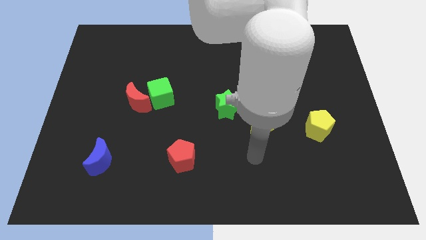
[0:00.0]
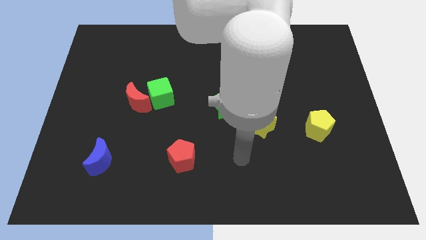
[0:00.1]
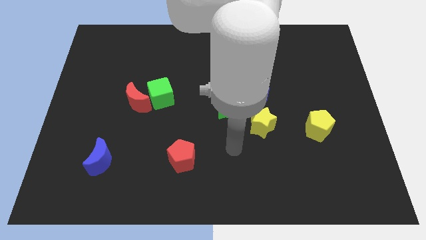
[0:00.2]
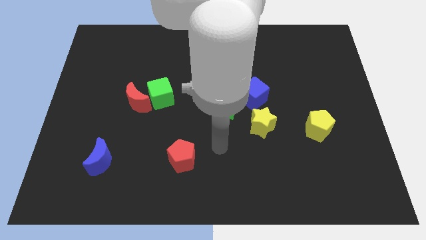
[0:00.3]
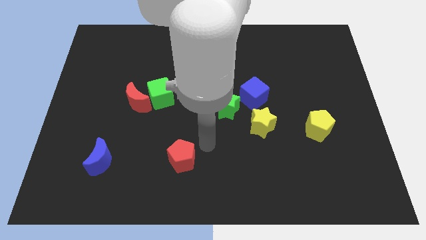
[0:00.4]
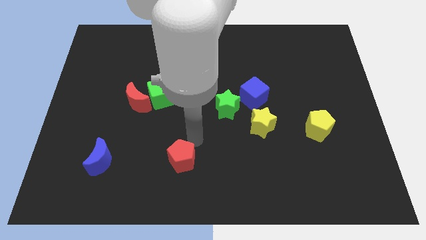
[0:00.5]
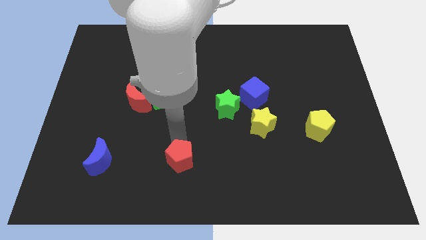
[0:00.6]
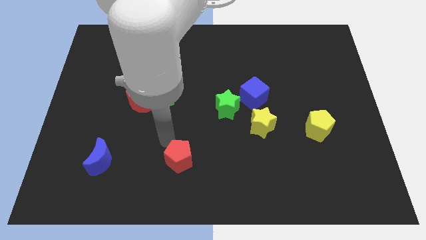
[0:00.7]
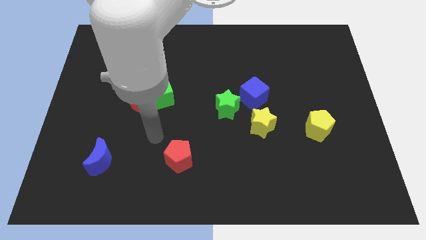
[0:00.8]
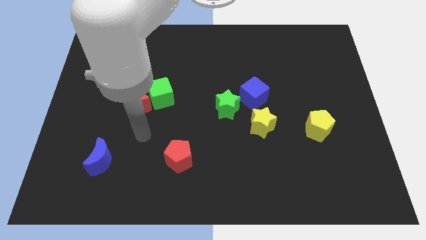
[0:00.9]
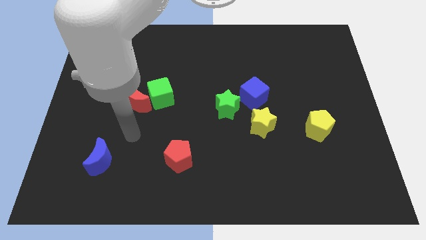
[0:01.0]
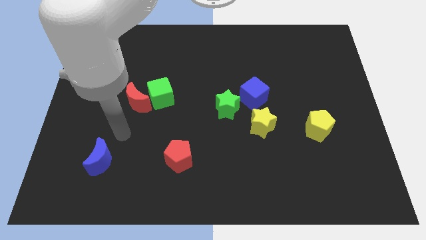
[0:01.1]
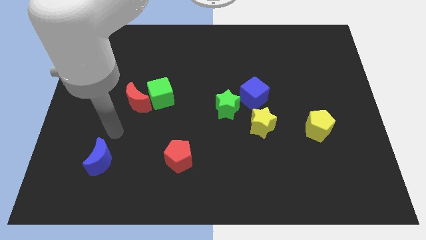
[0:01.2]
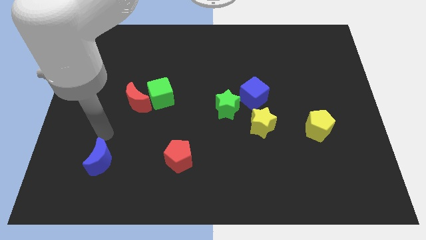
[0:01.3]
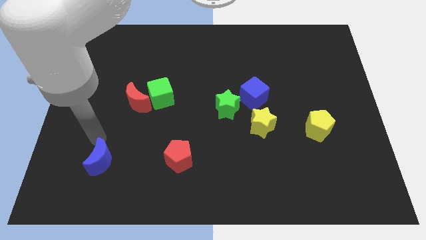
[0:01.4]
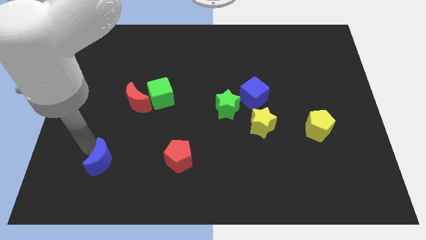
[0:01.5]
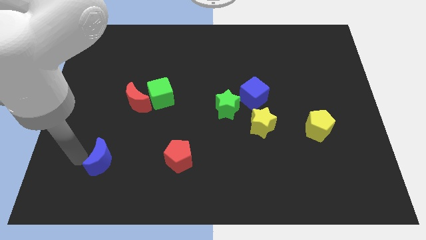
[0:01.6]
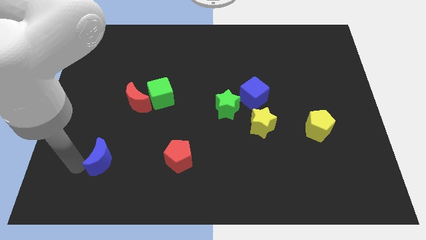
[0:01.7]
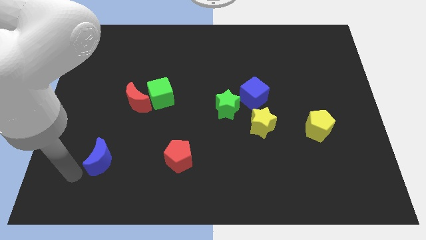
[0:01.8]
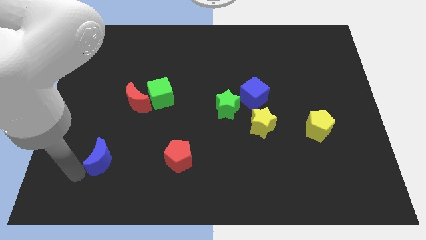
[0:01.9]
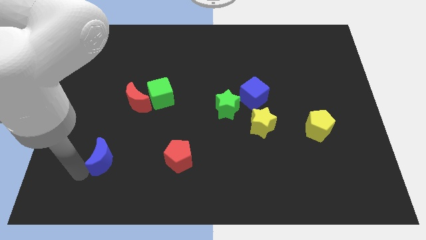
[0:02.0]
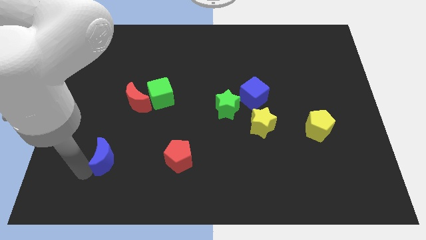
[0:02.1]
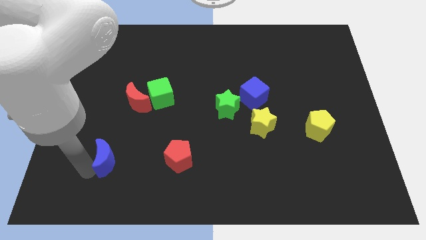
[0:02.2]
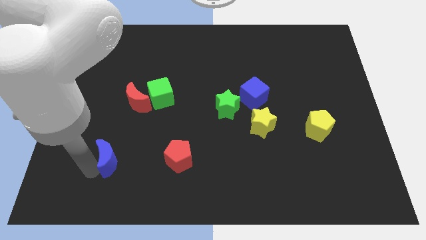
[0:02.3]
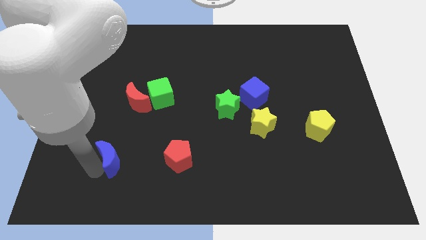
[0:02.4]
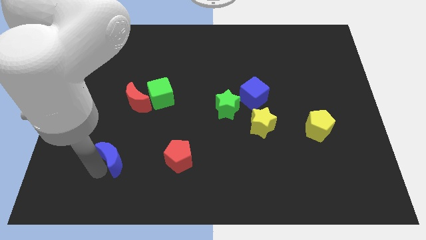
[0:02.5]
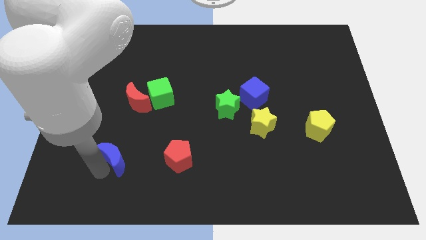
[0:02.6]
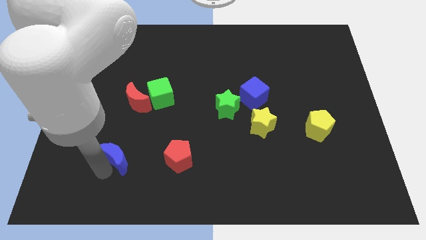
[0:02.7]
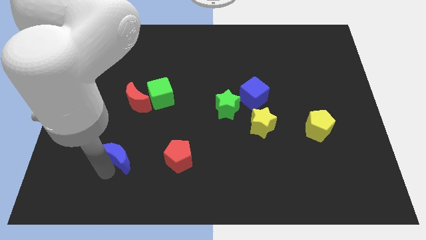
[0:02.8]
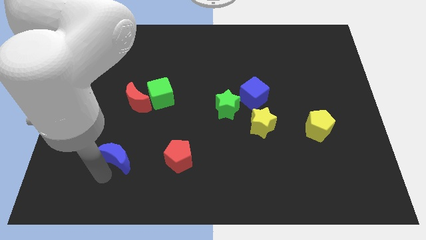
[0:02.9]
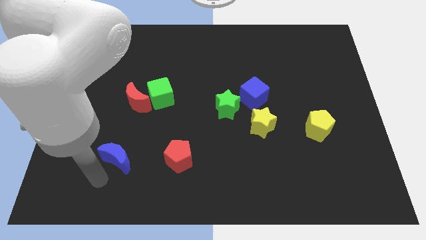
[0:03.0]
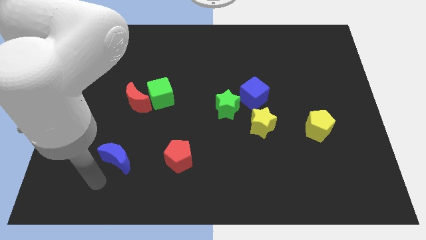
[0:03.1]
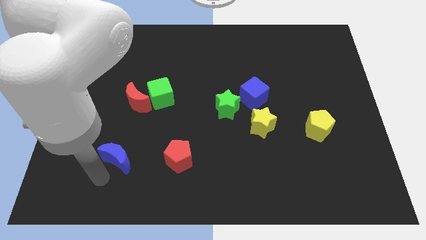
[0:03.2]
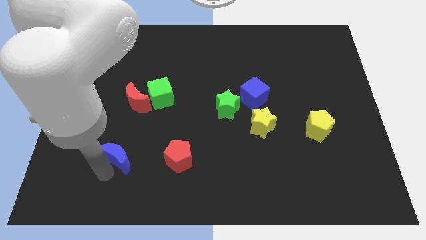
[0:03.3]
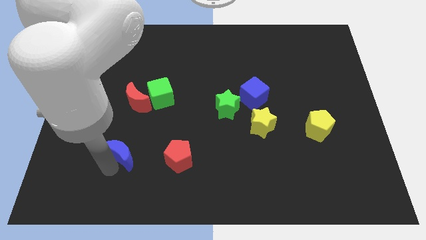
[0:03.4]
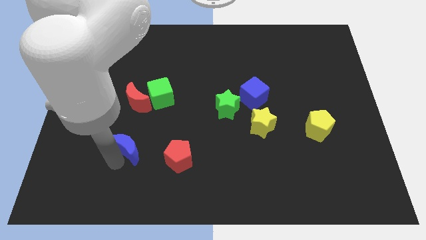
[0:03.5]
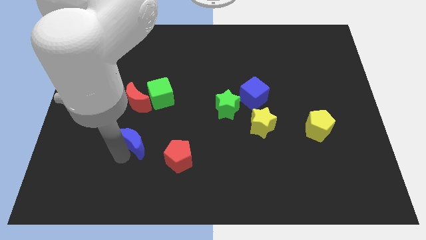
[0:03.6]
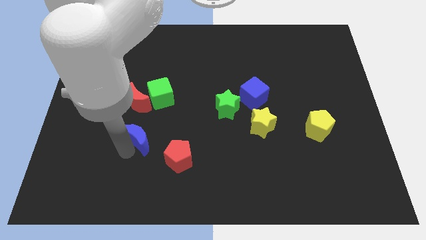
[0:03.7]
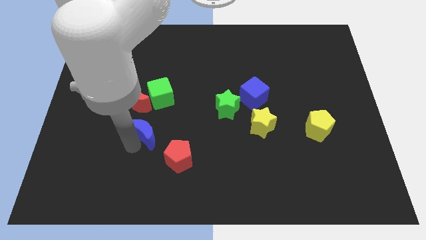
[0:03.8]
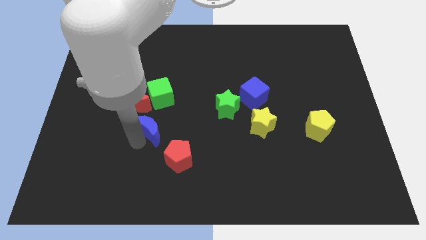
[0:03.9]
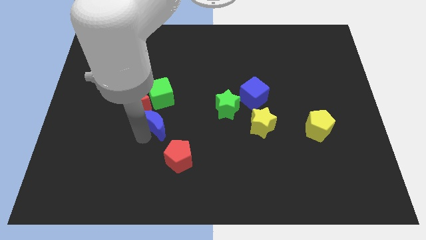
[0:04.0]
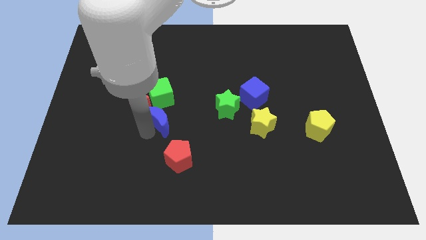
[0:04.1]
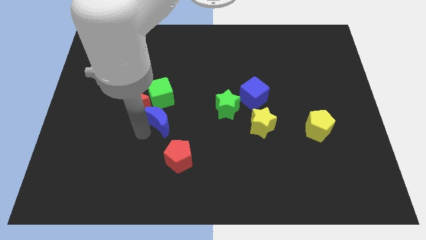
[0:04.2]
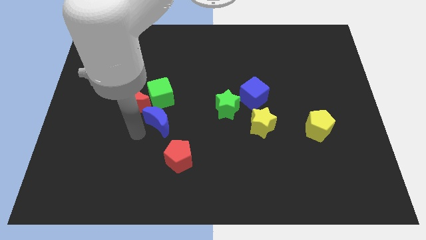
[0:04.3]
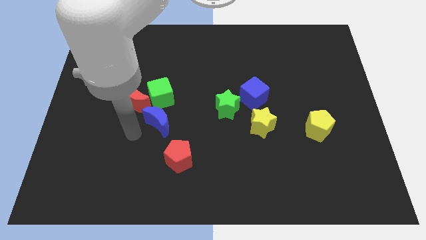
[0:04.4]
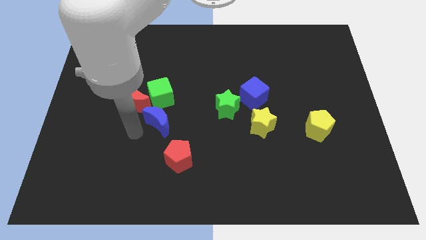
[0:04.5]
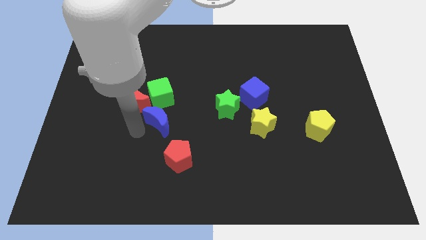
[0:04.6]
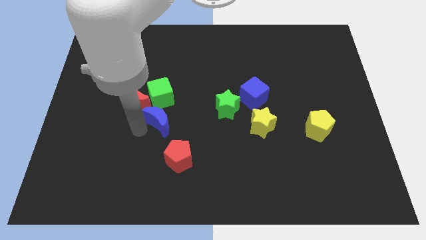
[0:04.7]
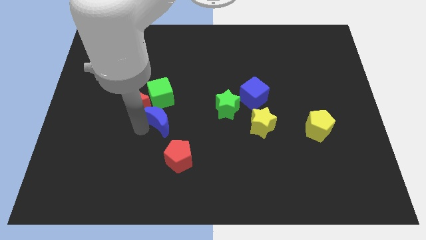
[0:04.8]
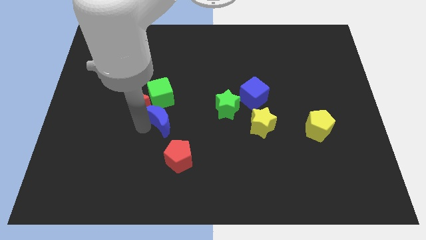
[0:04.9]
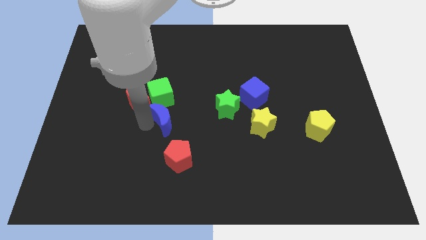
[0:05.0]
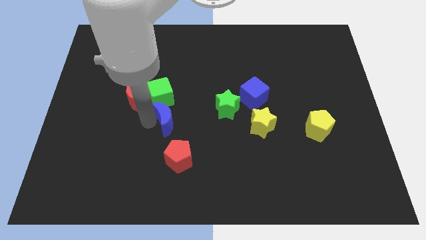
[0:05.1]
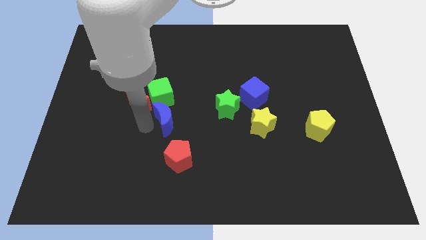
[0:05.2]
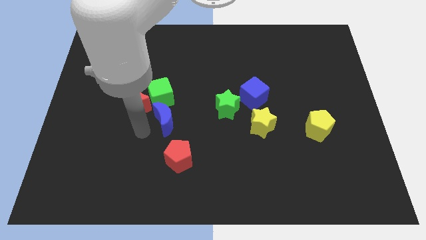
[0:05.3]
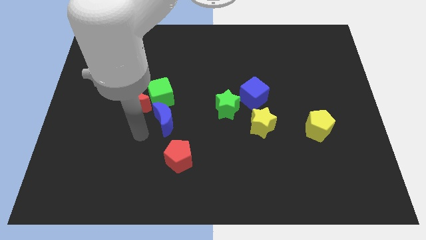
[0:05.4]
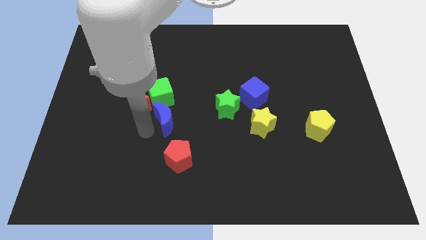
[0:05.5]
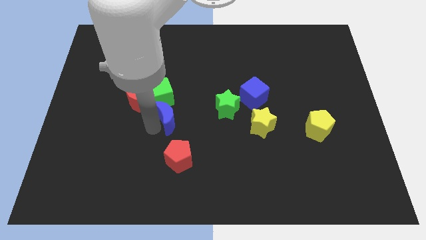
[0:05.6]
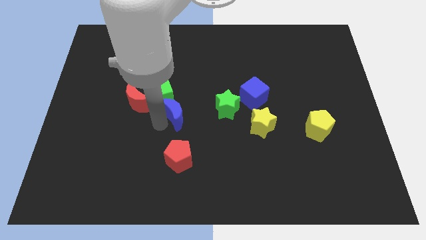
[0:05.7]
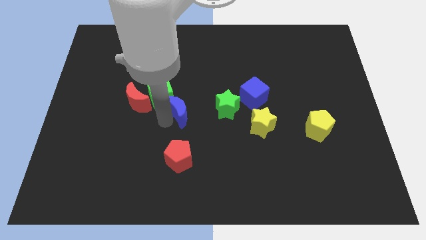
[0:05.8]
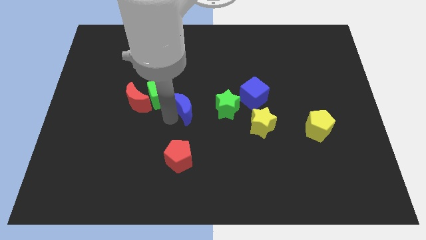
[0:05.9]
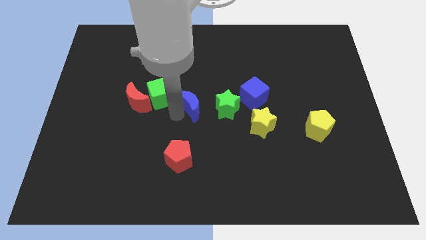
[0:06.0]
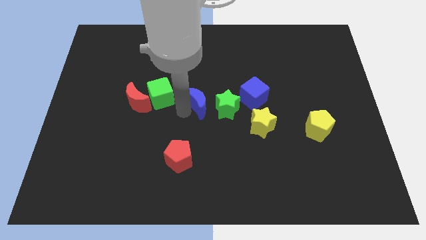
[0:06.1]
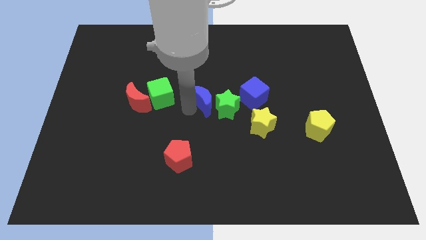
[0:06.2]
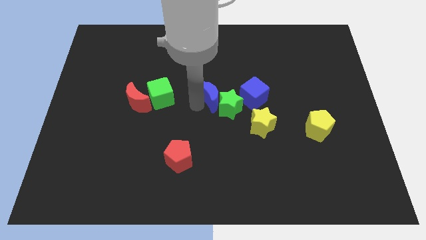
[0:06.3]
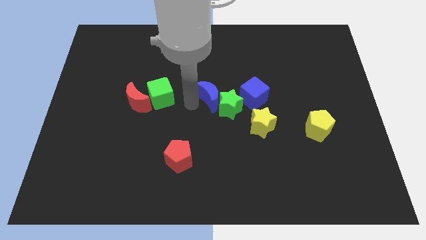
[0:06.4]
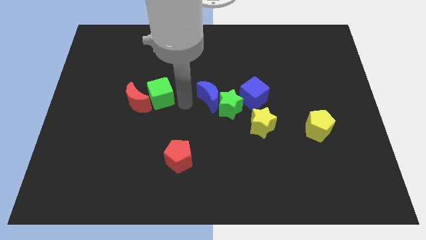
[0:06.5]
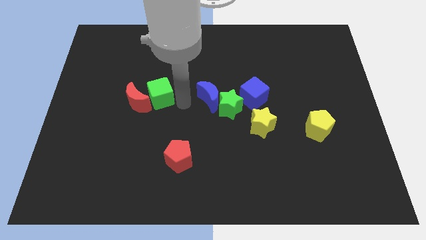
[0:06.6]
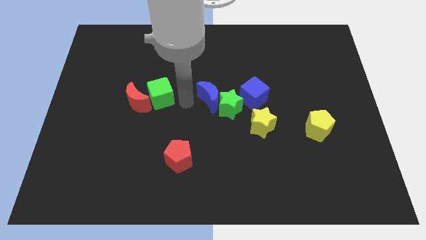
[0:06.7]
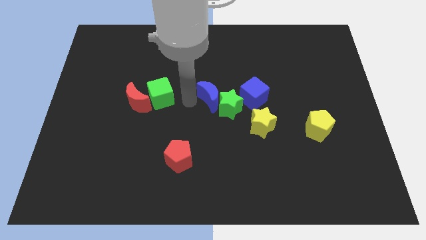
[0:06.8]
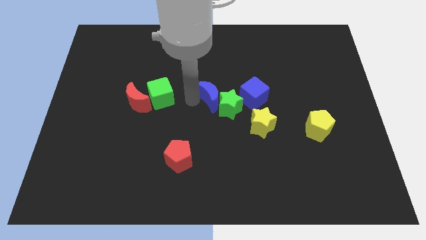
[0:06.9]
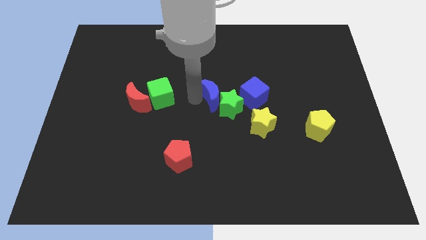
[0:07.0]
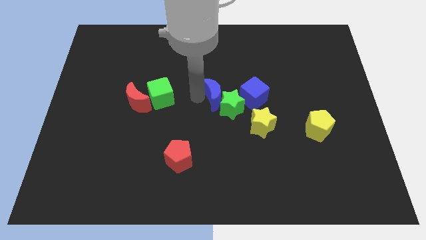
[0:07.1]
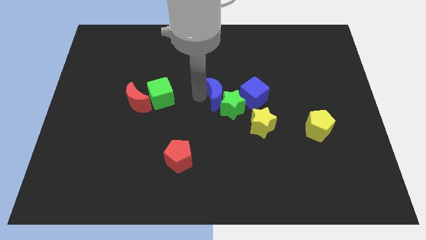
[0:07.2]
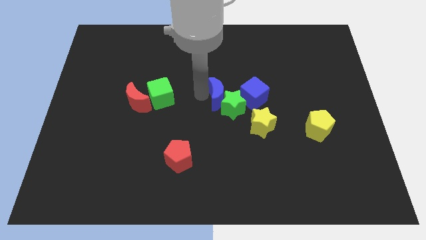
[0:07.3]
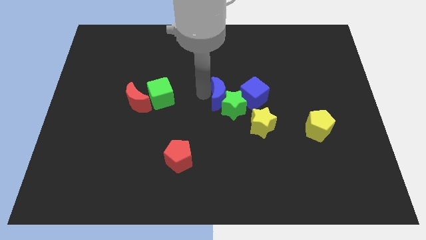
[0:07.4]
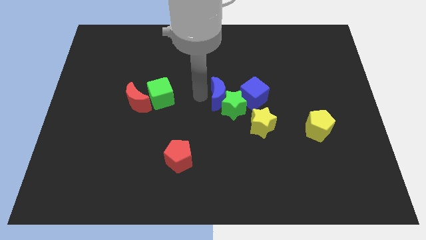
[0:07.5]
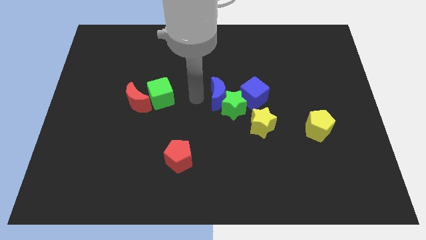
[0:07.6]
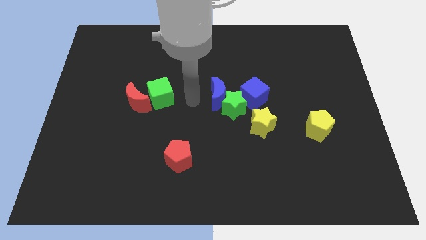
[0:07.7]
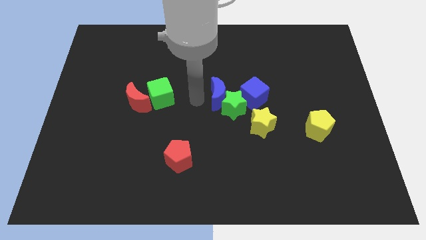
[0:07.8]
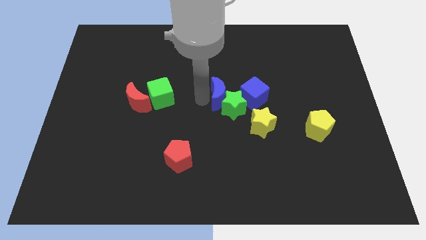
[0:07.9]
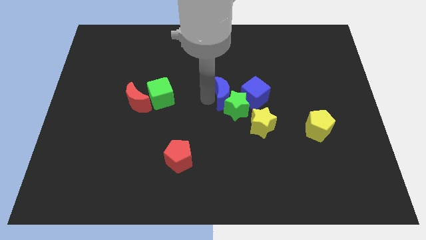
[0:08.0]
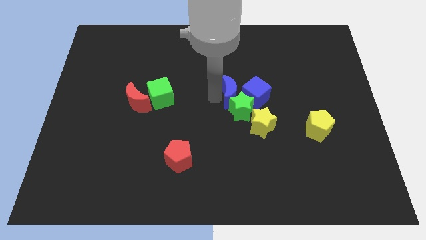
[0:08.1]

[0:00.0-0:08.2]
push the blue moon to the blue cube
